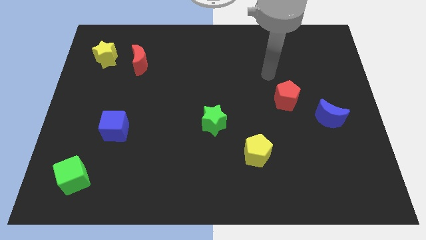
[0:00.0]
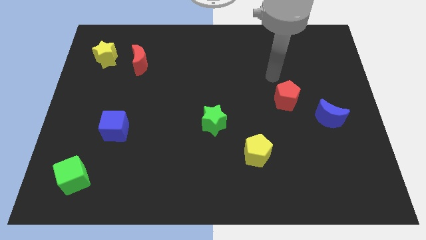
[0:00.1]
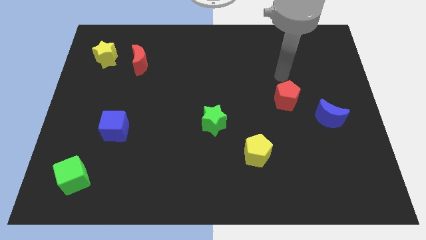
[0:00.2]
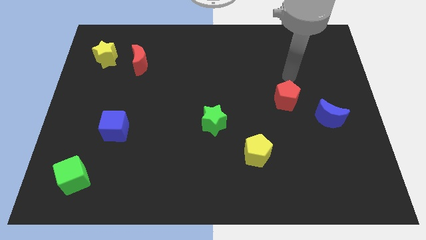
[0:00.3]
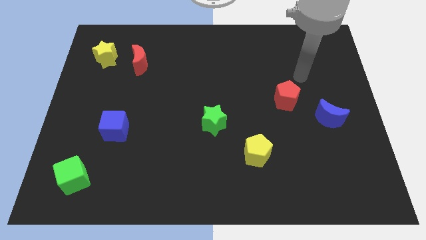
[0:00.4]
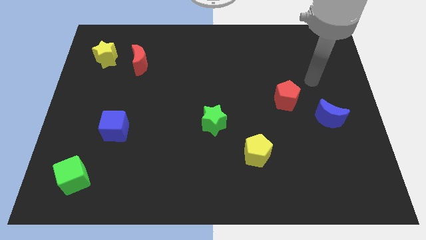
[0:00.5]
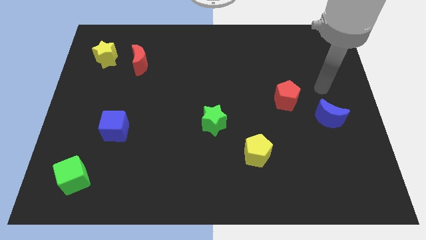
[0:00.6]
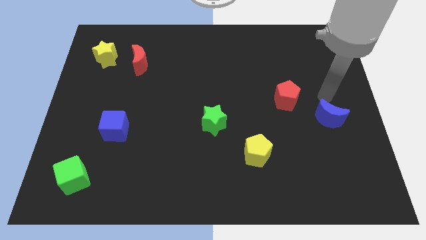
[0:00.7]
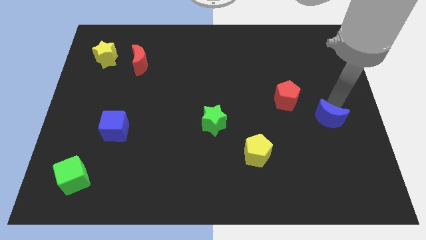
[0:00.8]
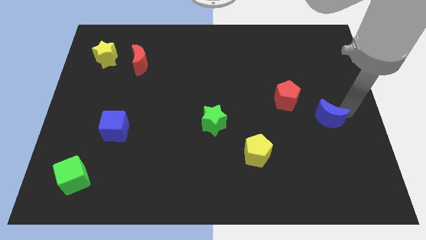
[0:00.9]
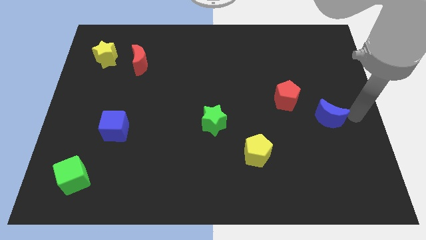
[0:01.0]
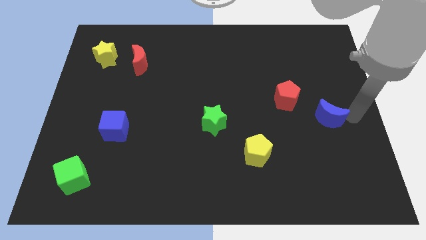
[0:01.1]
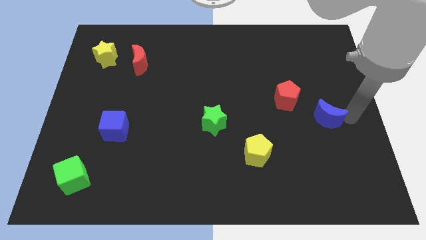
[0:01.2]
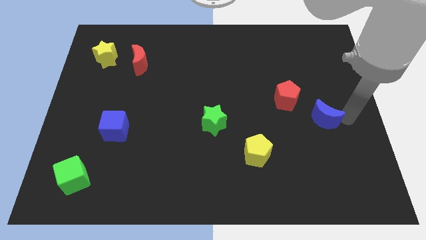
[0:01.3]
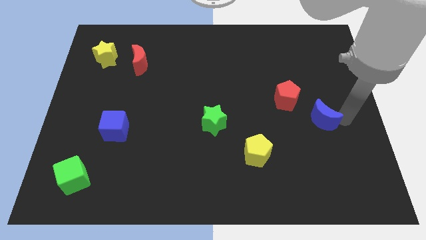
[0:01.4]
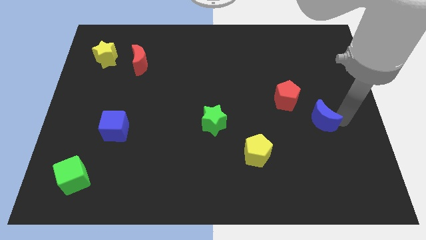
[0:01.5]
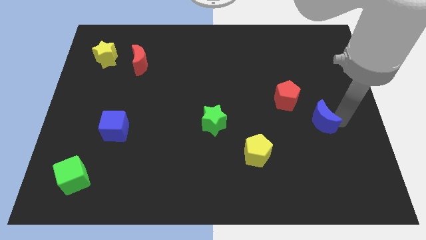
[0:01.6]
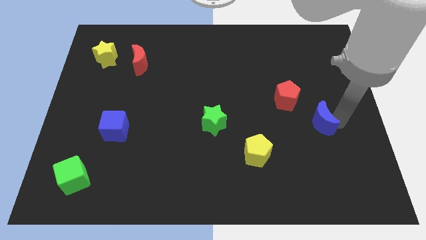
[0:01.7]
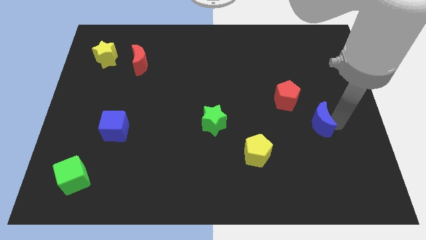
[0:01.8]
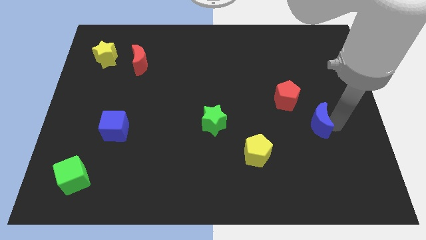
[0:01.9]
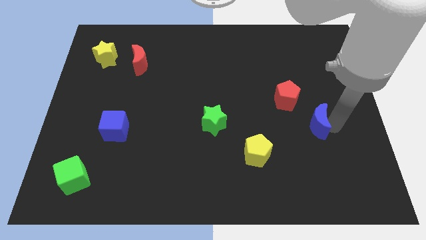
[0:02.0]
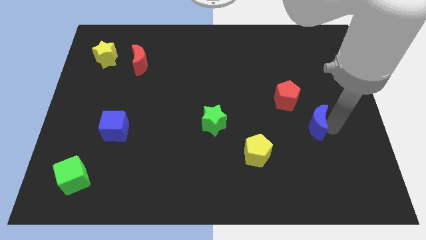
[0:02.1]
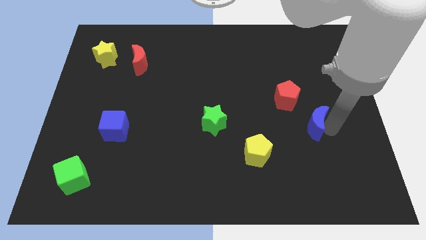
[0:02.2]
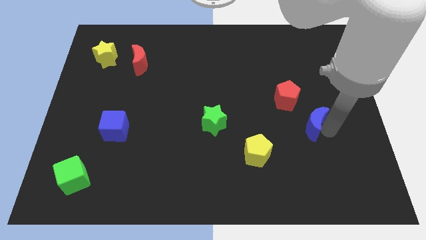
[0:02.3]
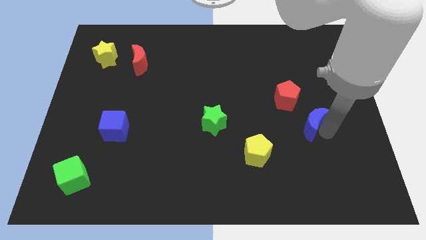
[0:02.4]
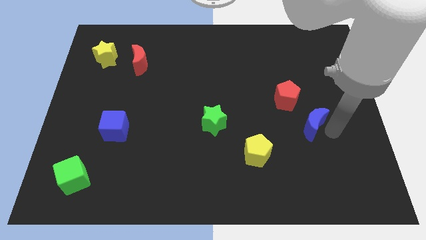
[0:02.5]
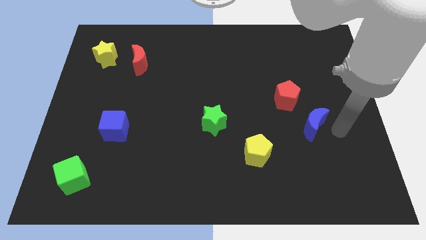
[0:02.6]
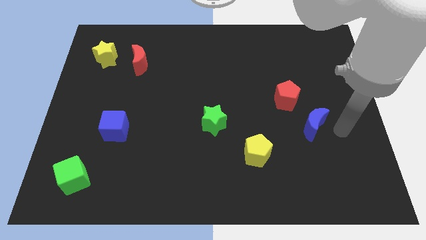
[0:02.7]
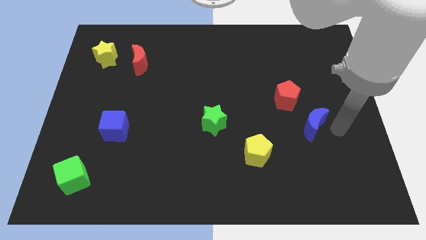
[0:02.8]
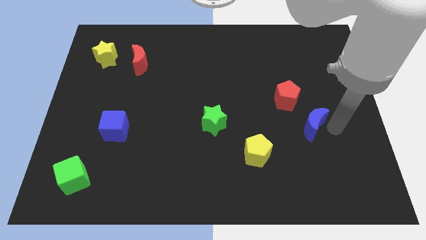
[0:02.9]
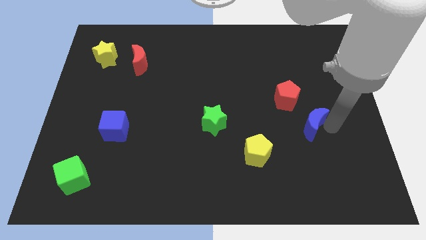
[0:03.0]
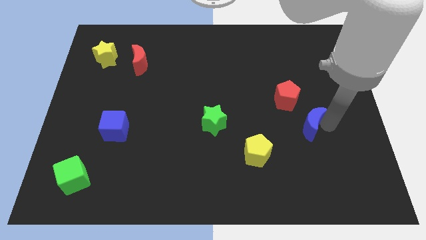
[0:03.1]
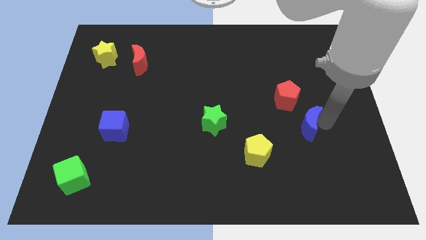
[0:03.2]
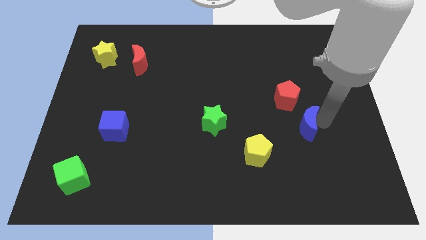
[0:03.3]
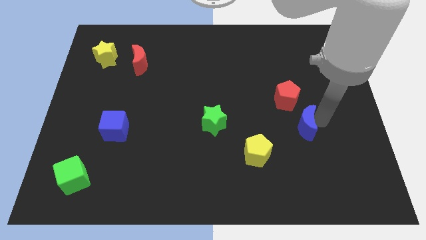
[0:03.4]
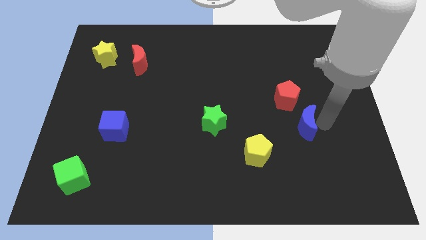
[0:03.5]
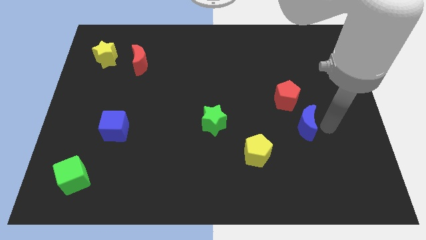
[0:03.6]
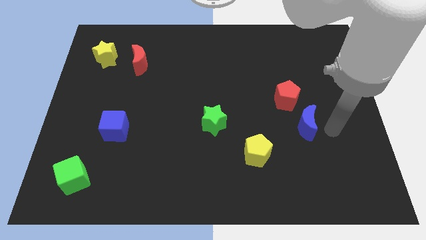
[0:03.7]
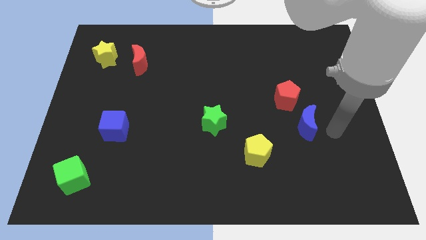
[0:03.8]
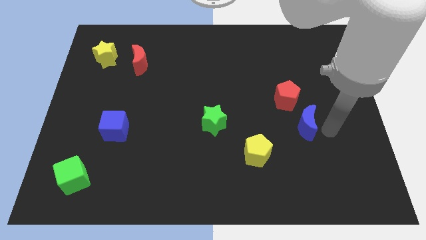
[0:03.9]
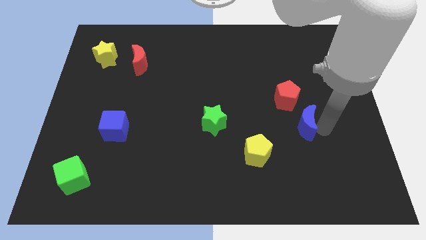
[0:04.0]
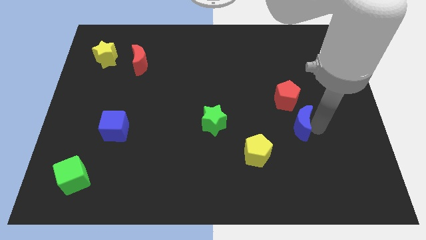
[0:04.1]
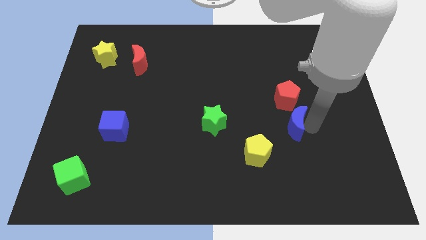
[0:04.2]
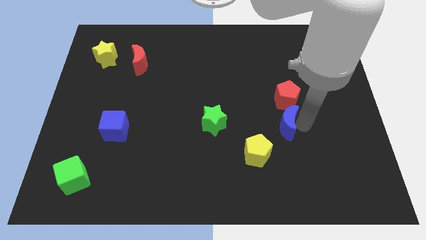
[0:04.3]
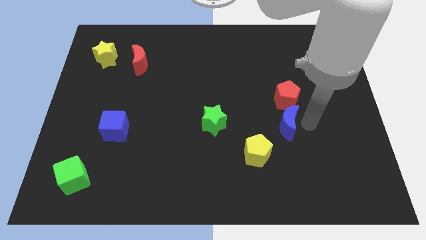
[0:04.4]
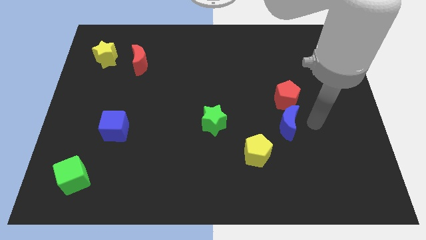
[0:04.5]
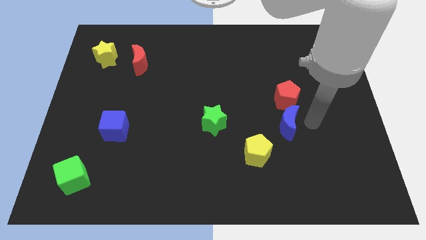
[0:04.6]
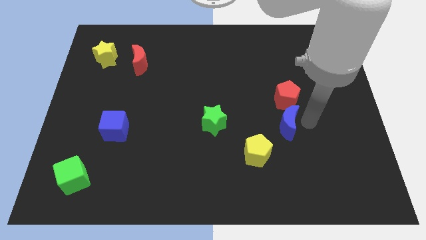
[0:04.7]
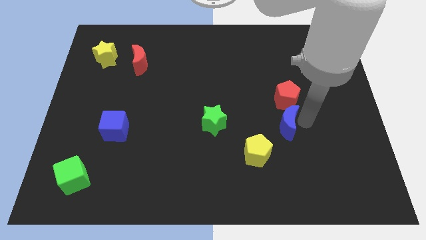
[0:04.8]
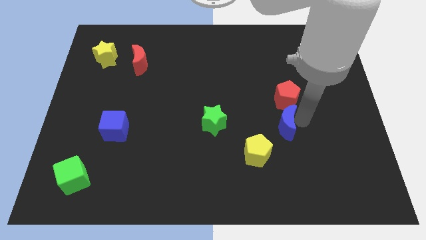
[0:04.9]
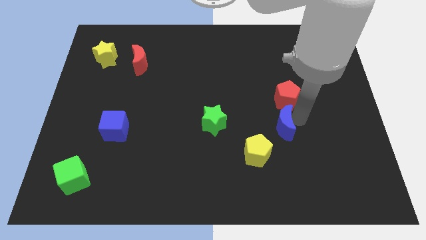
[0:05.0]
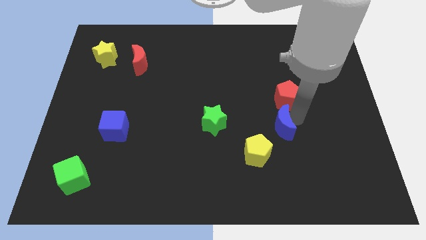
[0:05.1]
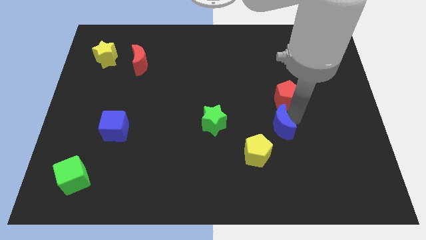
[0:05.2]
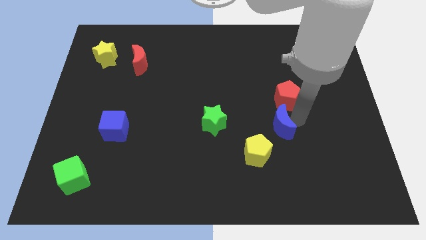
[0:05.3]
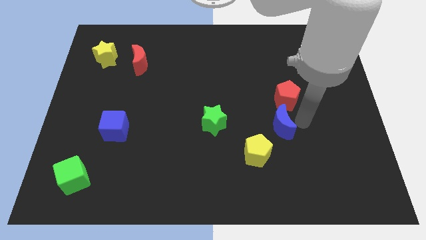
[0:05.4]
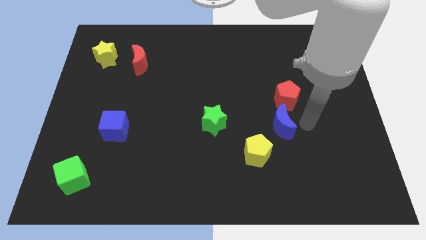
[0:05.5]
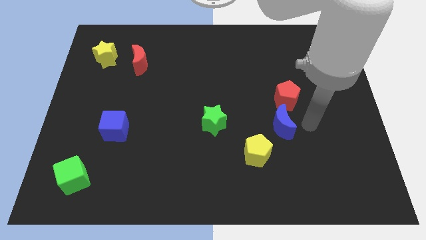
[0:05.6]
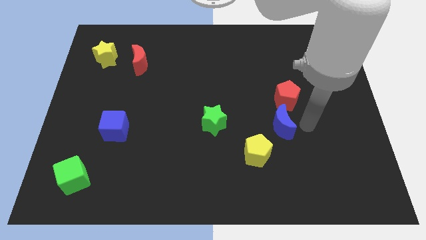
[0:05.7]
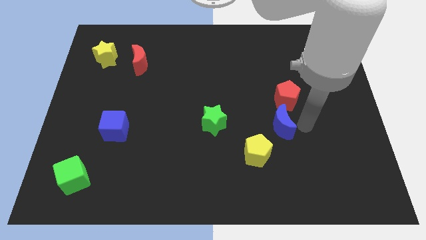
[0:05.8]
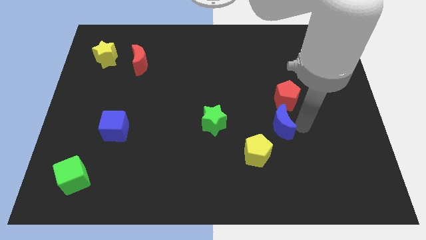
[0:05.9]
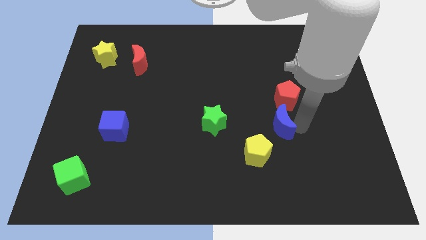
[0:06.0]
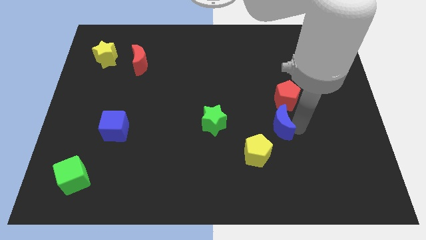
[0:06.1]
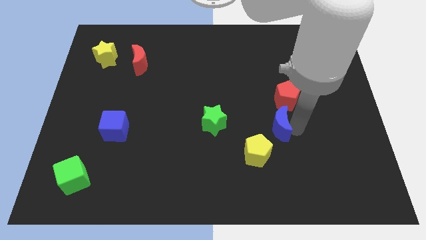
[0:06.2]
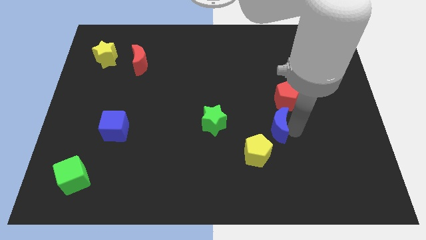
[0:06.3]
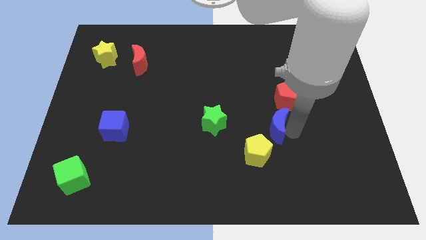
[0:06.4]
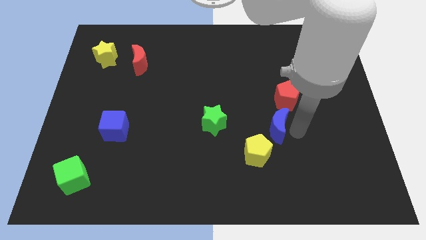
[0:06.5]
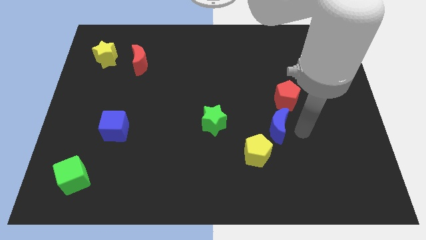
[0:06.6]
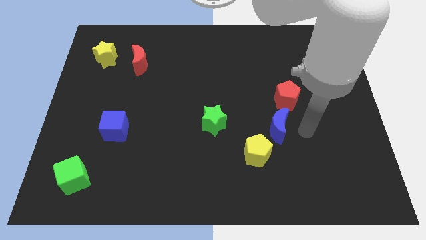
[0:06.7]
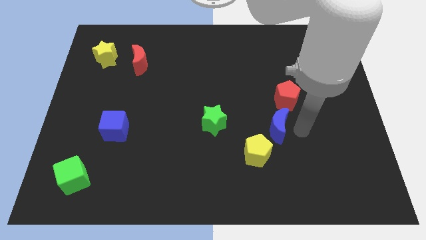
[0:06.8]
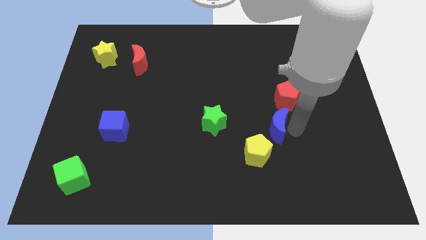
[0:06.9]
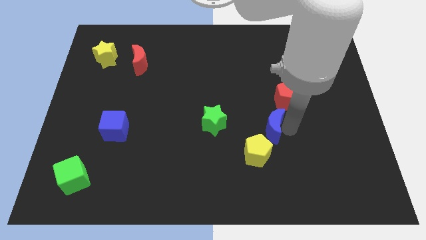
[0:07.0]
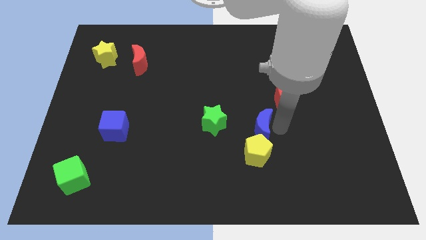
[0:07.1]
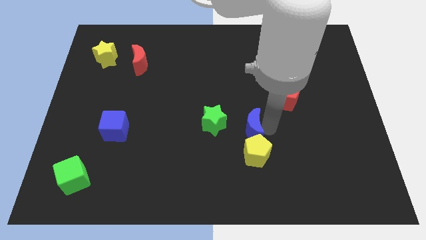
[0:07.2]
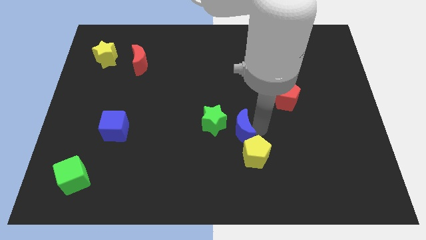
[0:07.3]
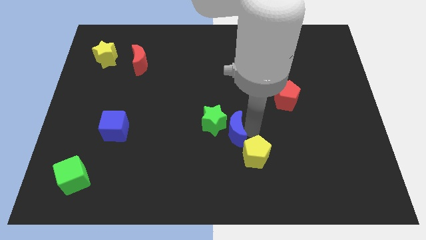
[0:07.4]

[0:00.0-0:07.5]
push the blue moon towards the green star
